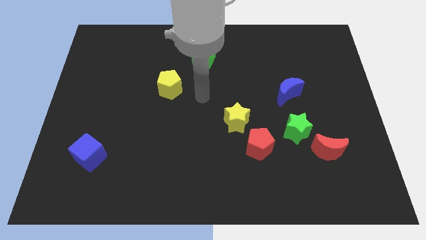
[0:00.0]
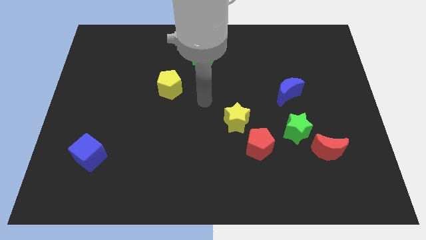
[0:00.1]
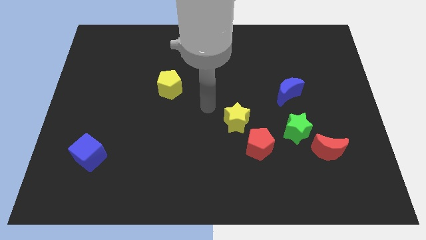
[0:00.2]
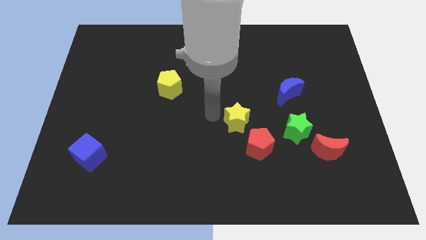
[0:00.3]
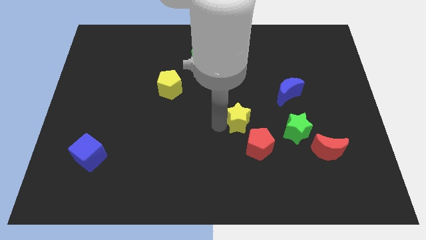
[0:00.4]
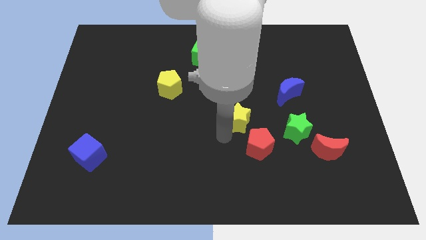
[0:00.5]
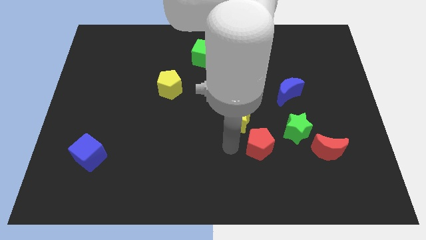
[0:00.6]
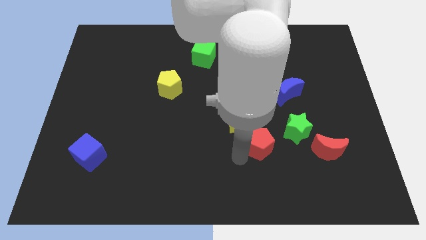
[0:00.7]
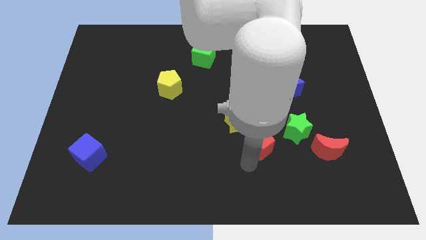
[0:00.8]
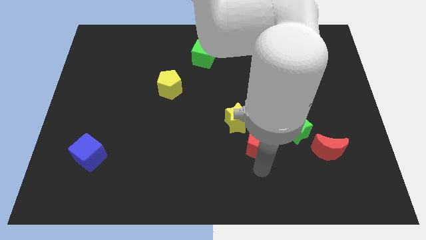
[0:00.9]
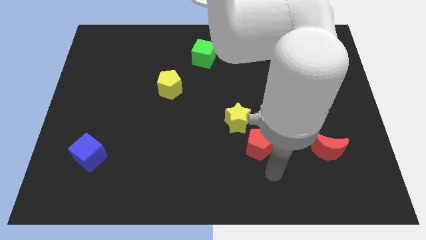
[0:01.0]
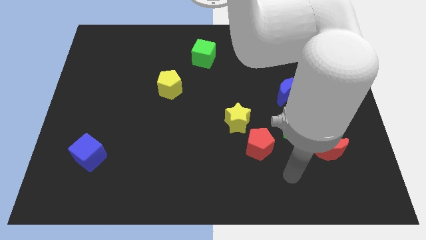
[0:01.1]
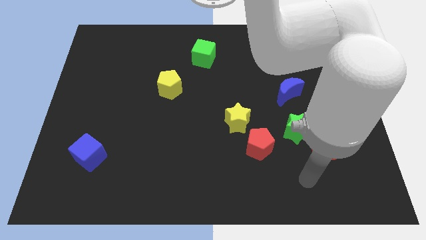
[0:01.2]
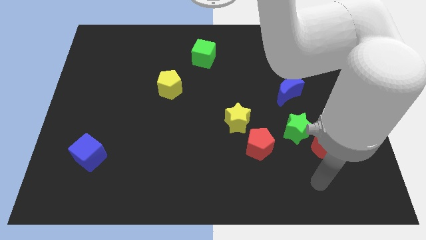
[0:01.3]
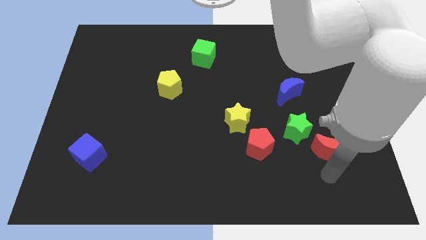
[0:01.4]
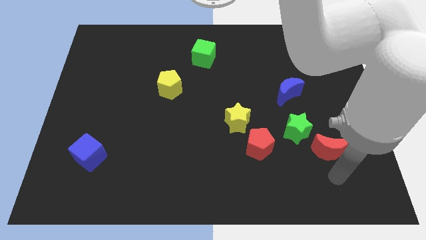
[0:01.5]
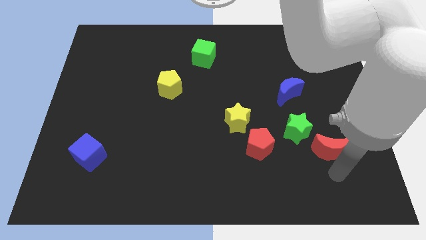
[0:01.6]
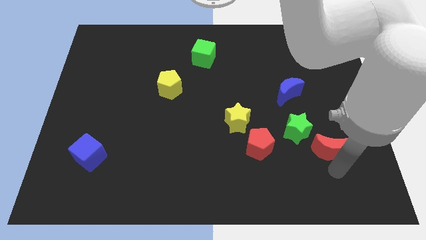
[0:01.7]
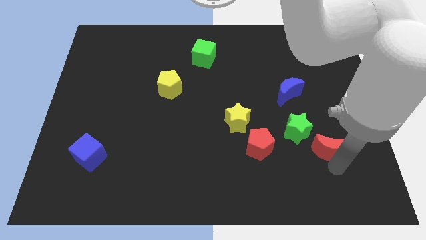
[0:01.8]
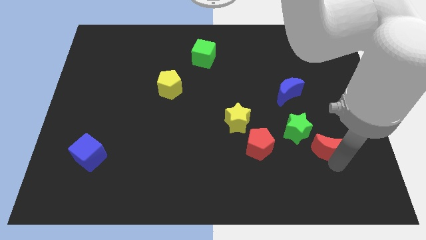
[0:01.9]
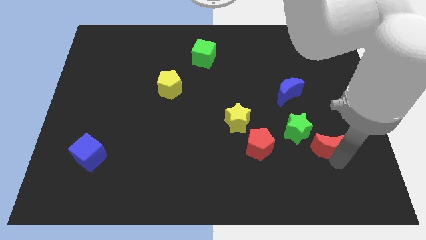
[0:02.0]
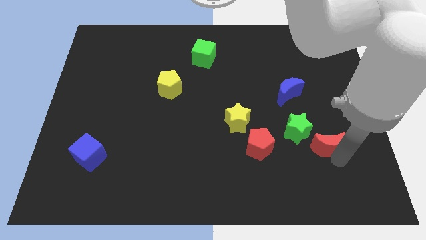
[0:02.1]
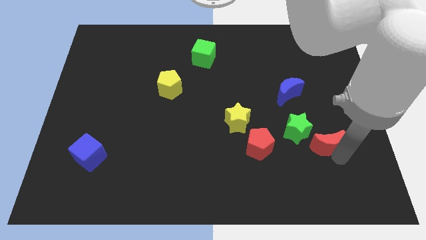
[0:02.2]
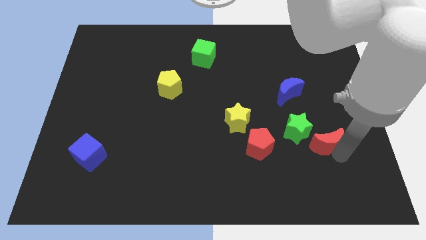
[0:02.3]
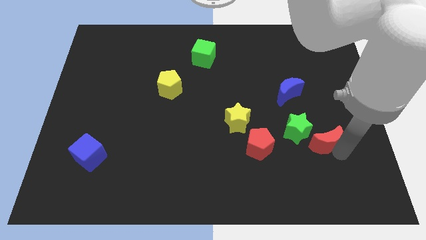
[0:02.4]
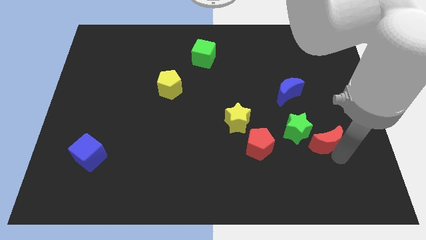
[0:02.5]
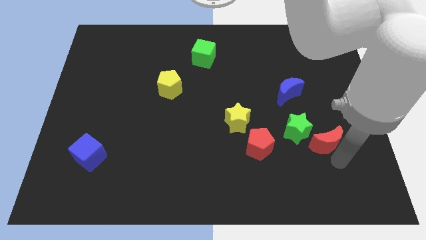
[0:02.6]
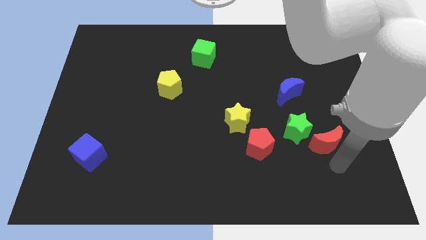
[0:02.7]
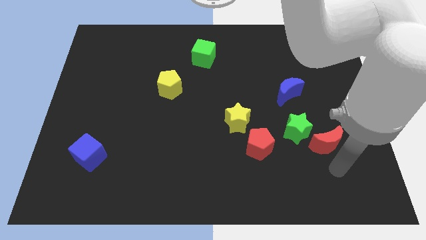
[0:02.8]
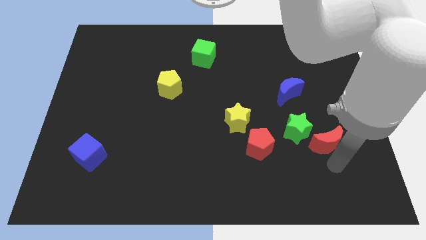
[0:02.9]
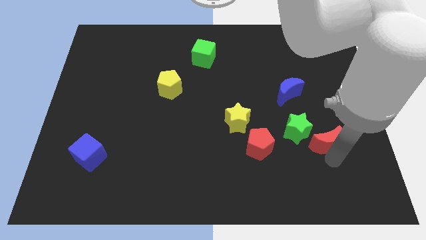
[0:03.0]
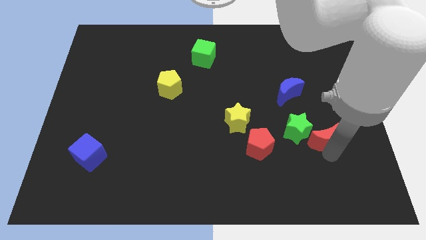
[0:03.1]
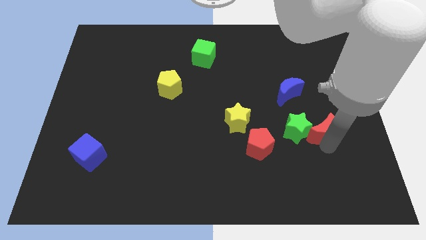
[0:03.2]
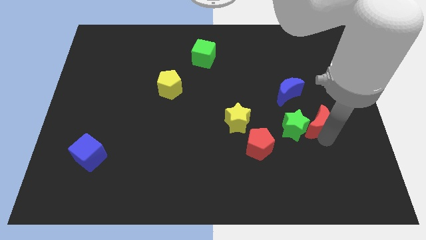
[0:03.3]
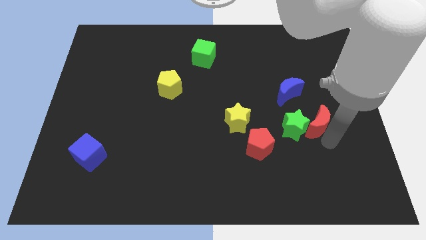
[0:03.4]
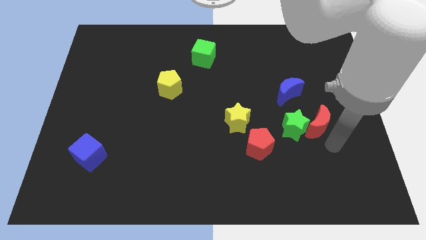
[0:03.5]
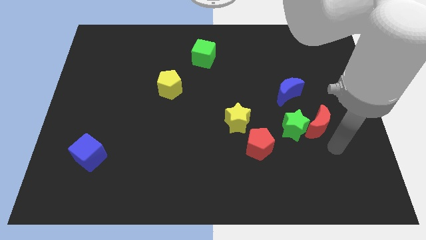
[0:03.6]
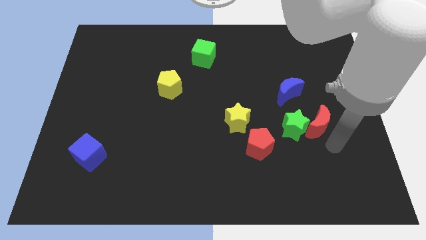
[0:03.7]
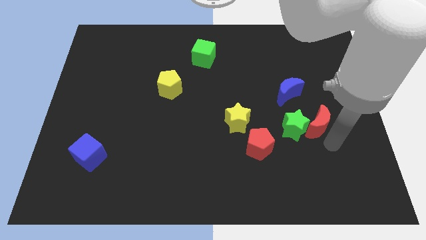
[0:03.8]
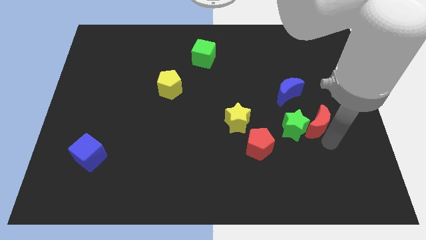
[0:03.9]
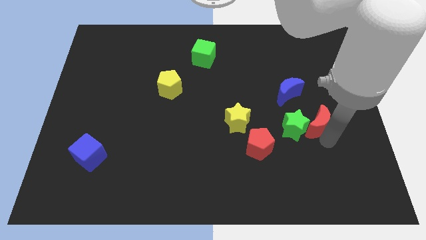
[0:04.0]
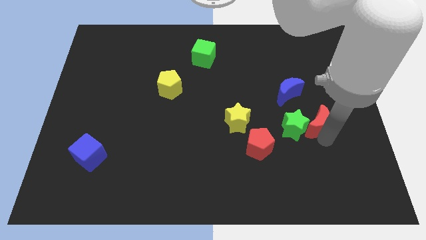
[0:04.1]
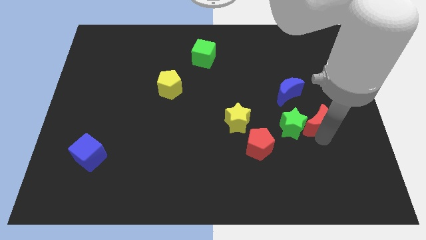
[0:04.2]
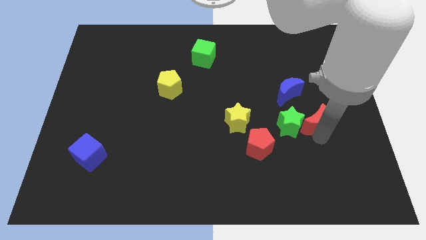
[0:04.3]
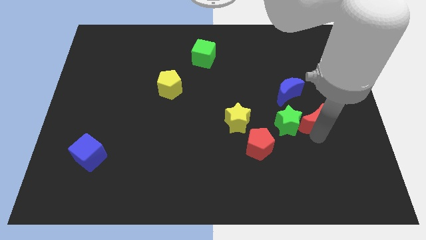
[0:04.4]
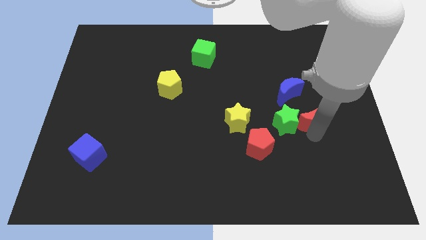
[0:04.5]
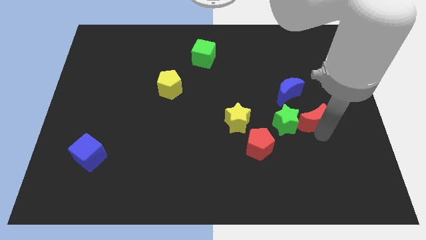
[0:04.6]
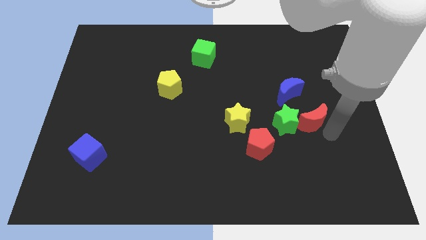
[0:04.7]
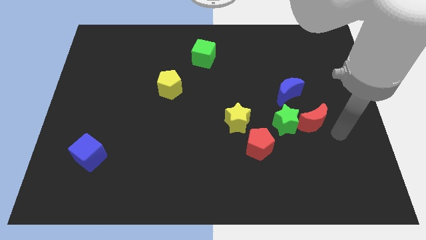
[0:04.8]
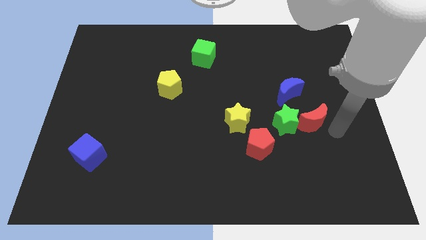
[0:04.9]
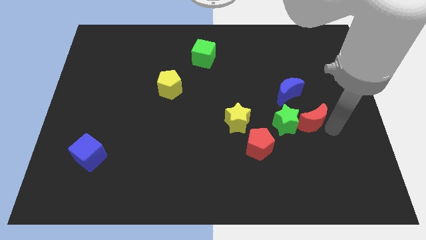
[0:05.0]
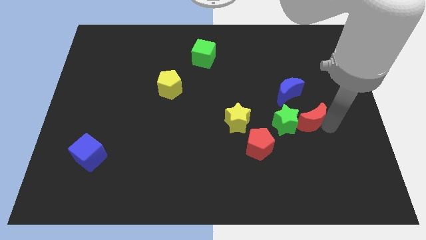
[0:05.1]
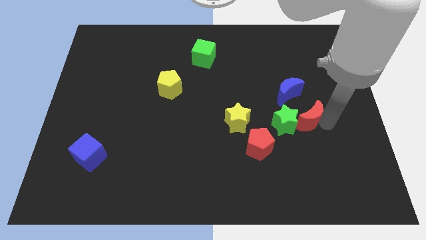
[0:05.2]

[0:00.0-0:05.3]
push the red moon up and left a bit

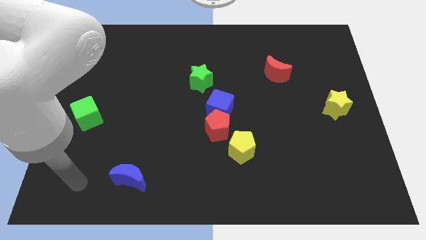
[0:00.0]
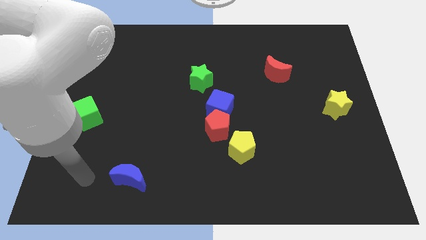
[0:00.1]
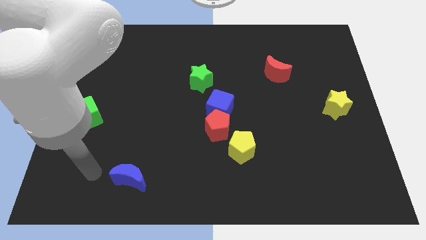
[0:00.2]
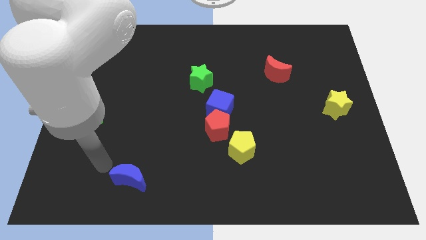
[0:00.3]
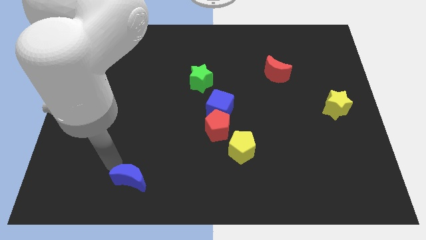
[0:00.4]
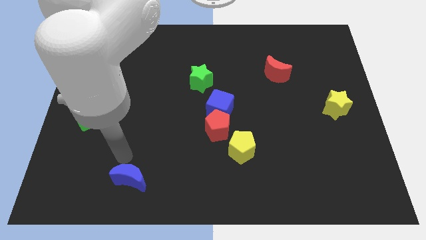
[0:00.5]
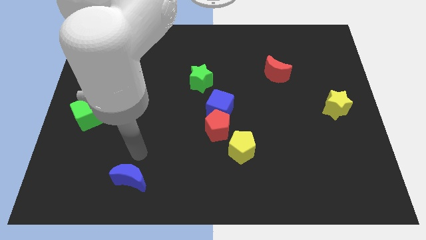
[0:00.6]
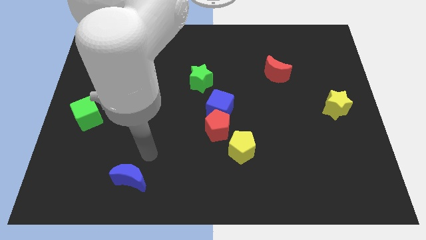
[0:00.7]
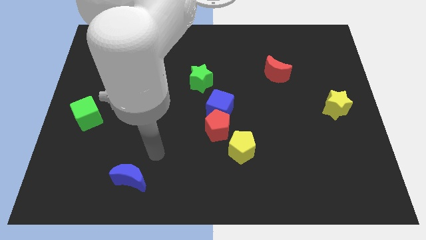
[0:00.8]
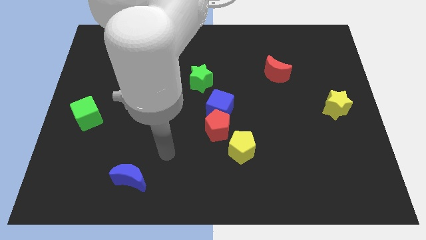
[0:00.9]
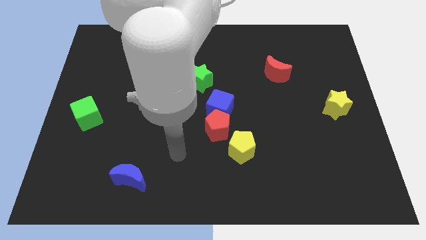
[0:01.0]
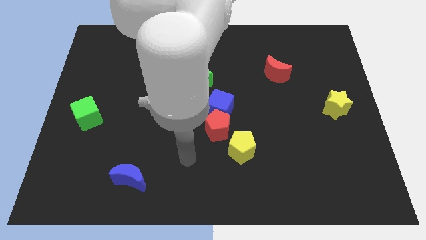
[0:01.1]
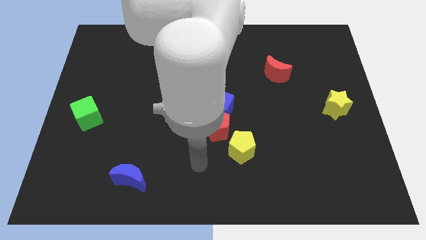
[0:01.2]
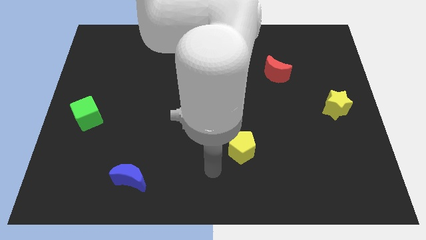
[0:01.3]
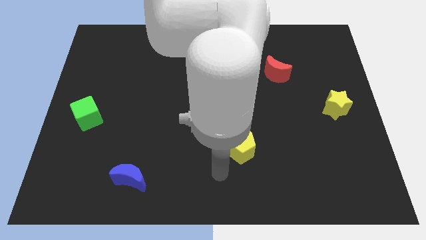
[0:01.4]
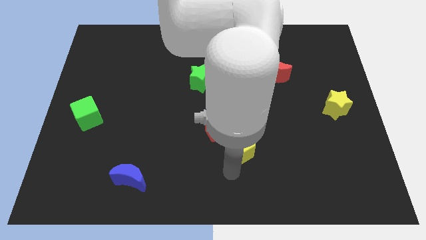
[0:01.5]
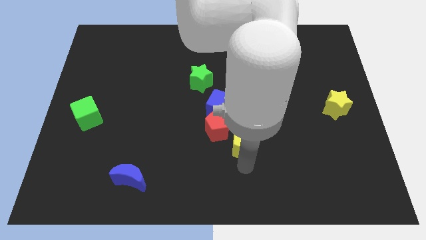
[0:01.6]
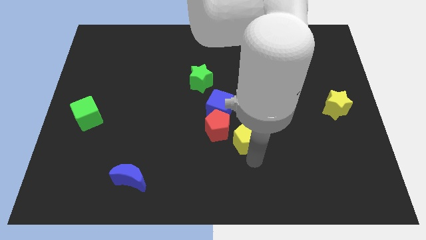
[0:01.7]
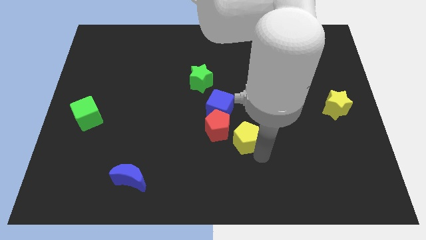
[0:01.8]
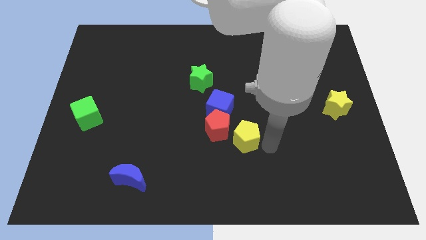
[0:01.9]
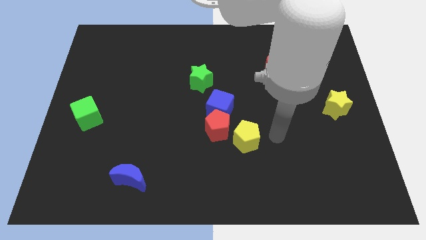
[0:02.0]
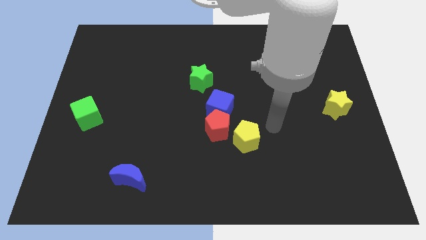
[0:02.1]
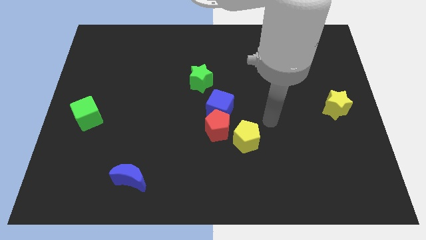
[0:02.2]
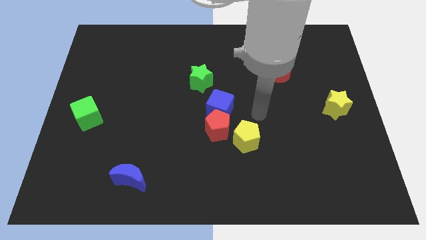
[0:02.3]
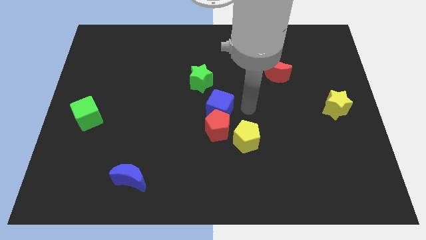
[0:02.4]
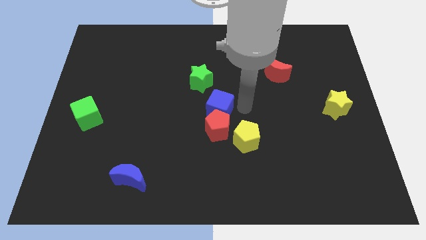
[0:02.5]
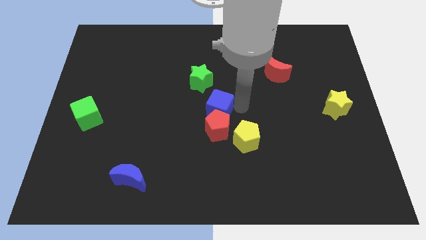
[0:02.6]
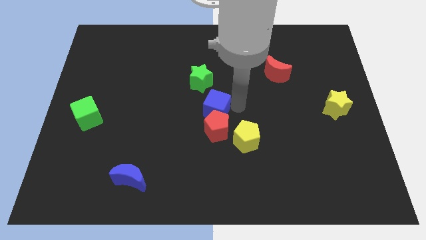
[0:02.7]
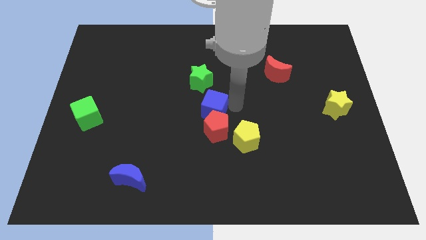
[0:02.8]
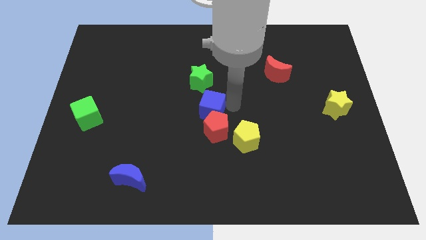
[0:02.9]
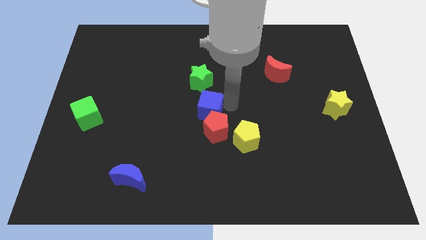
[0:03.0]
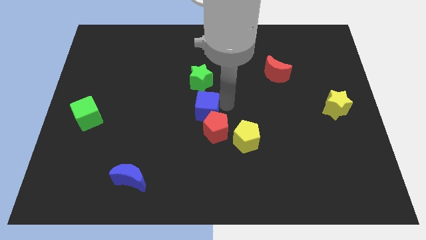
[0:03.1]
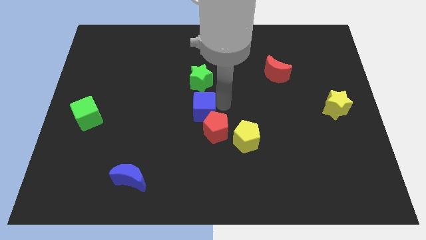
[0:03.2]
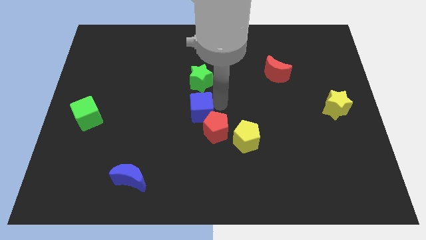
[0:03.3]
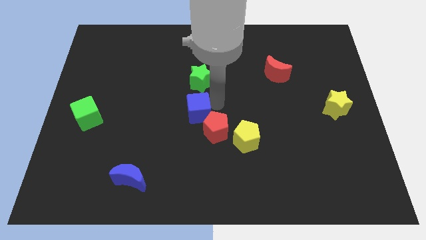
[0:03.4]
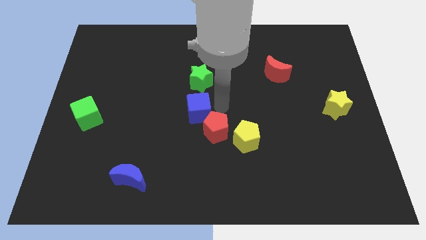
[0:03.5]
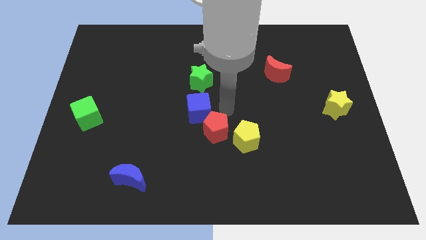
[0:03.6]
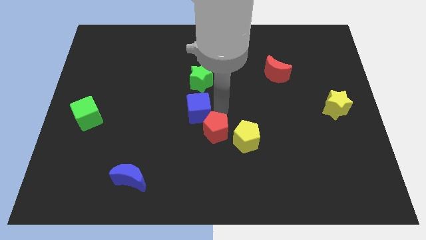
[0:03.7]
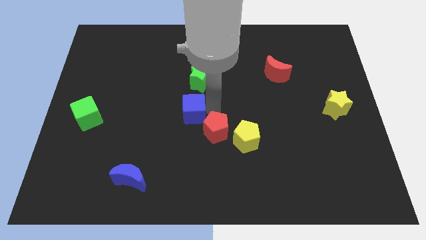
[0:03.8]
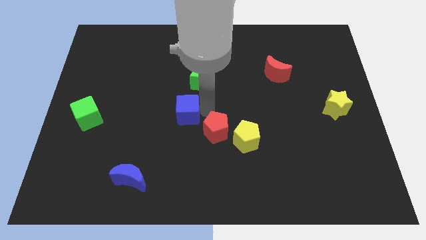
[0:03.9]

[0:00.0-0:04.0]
move the blue cube a little left
